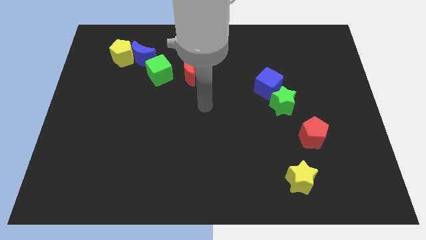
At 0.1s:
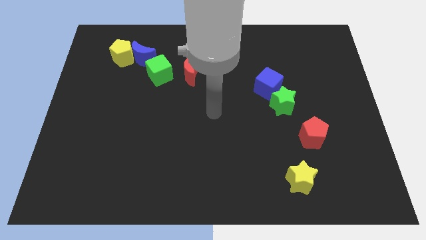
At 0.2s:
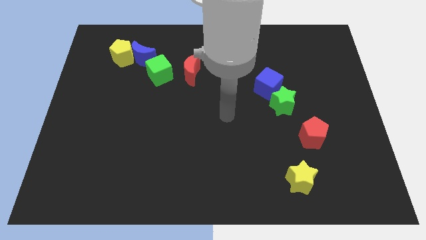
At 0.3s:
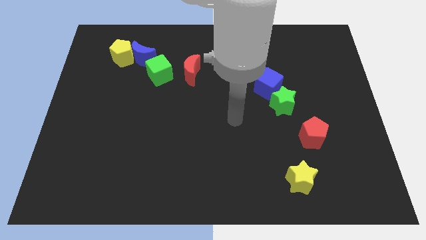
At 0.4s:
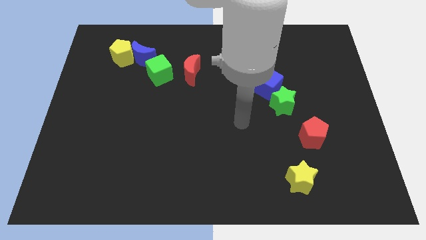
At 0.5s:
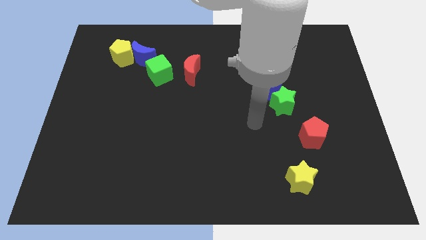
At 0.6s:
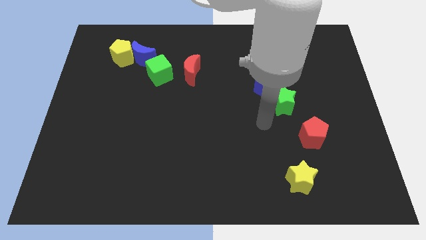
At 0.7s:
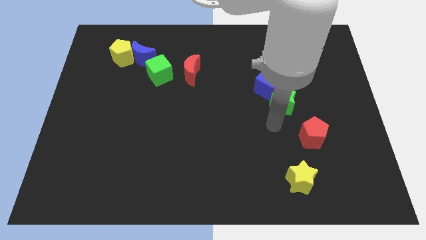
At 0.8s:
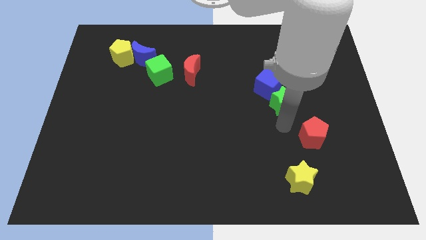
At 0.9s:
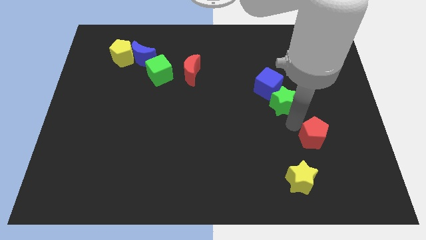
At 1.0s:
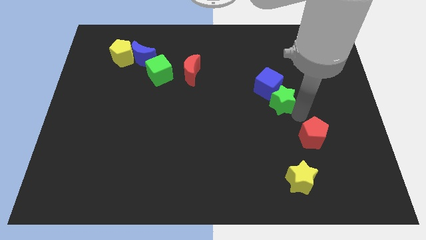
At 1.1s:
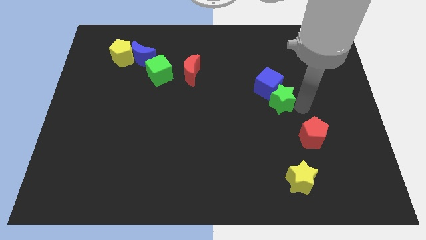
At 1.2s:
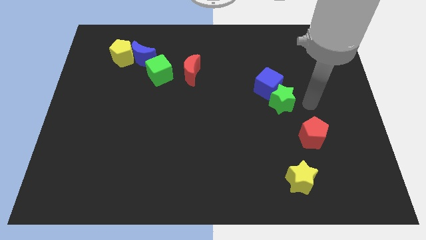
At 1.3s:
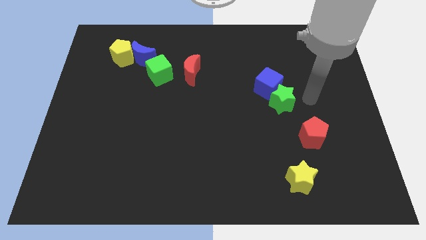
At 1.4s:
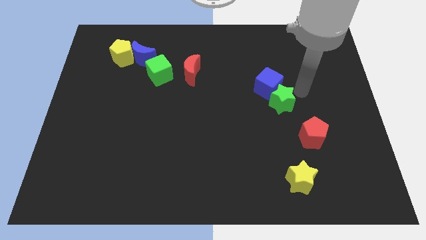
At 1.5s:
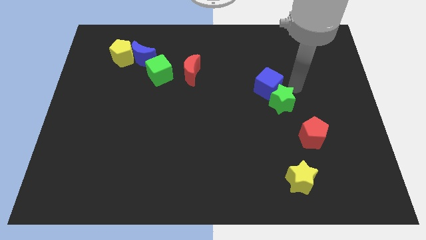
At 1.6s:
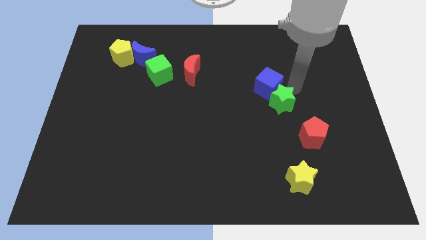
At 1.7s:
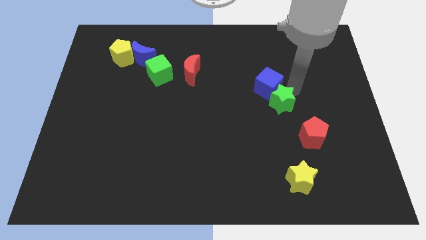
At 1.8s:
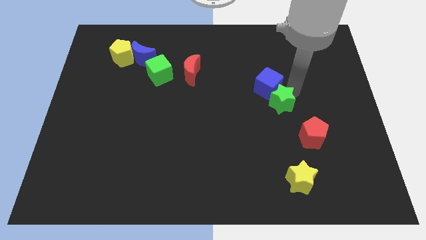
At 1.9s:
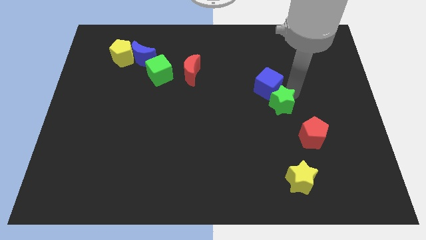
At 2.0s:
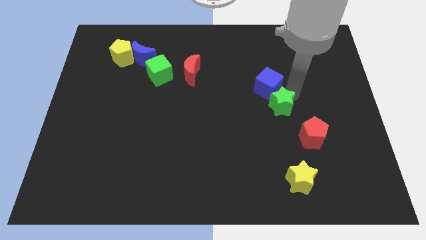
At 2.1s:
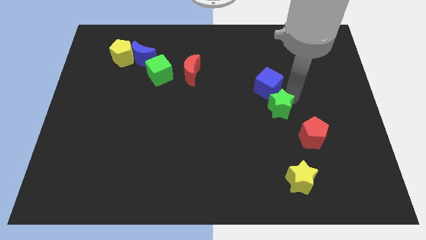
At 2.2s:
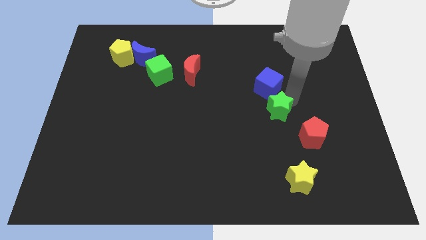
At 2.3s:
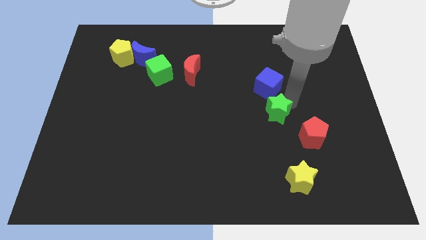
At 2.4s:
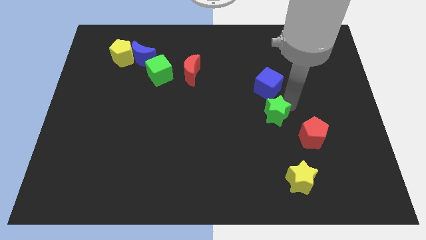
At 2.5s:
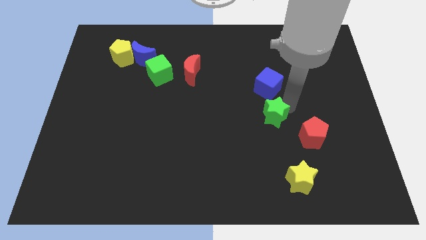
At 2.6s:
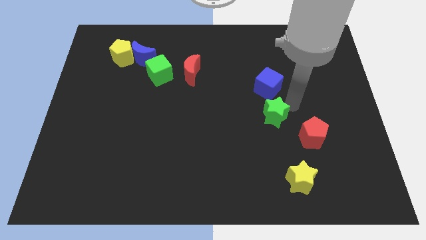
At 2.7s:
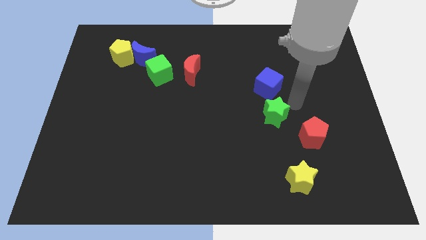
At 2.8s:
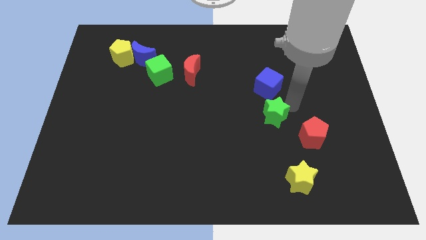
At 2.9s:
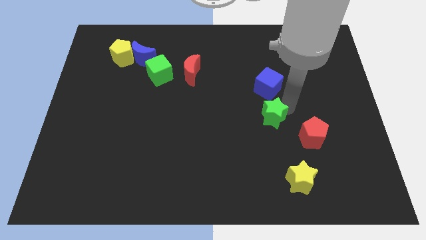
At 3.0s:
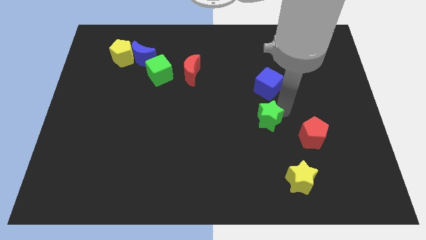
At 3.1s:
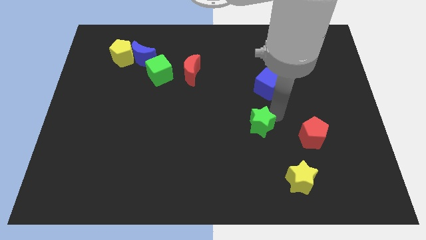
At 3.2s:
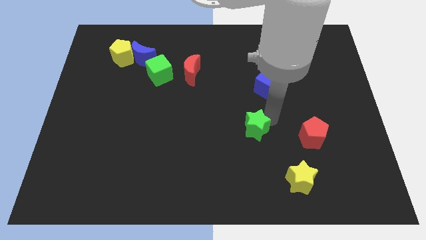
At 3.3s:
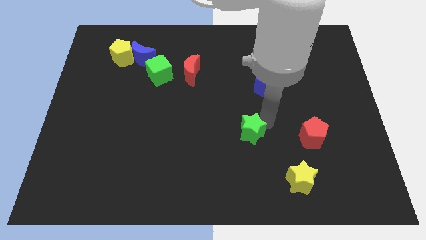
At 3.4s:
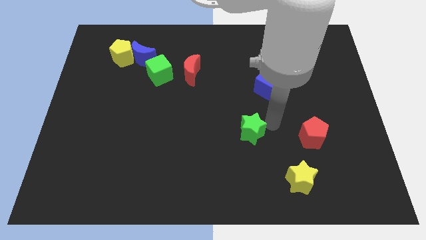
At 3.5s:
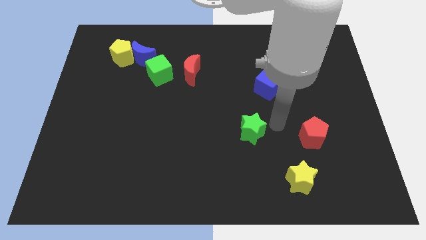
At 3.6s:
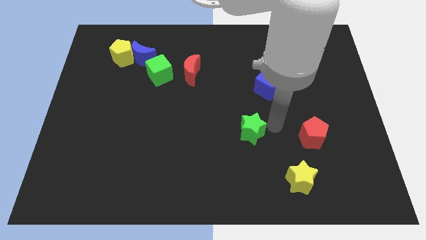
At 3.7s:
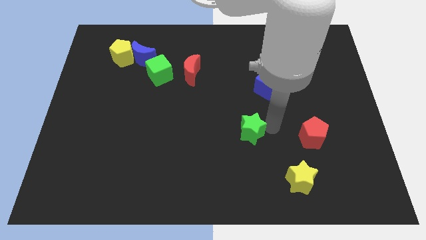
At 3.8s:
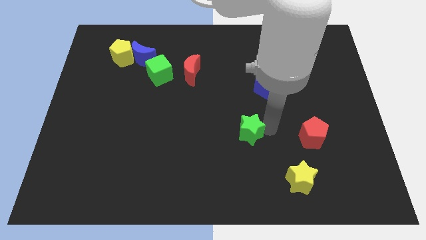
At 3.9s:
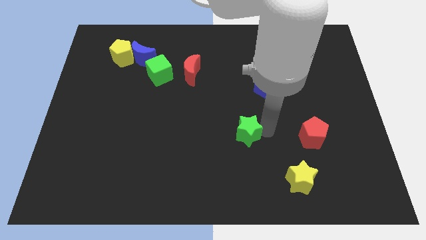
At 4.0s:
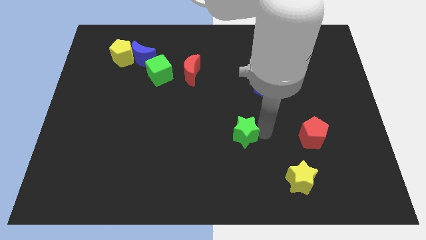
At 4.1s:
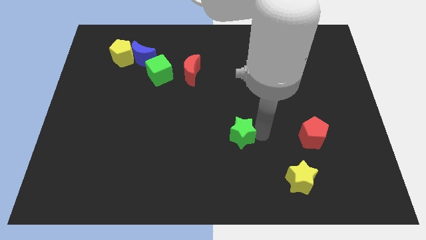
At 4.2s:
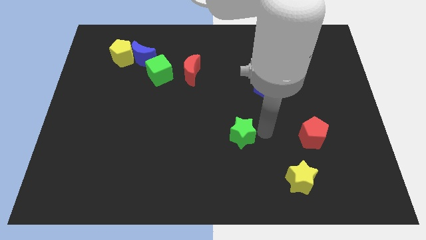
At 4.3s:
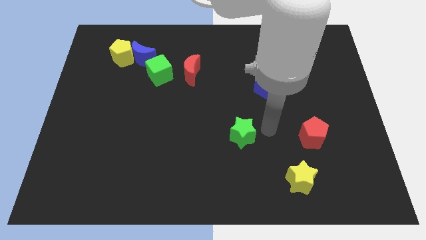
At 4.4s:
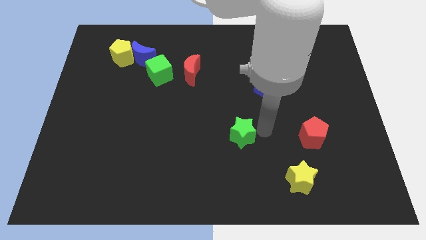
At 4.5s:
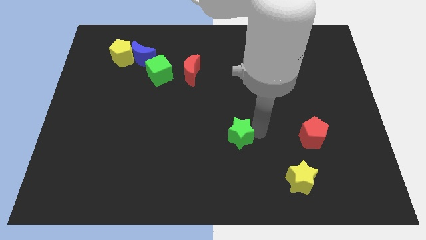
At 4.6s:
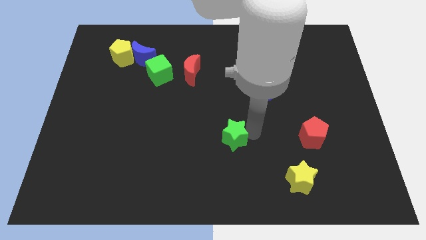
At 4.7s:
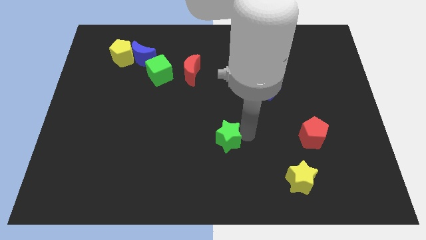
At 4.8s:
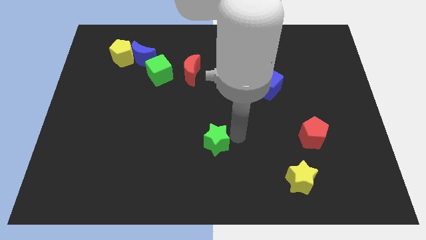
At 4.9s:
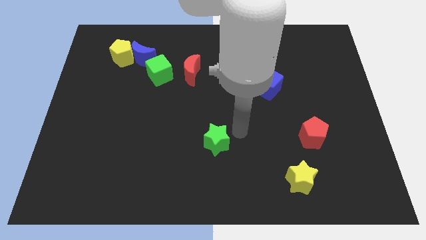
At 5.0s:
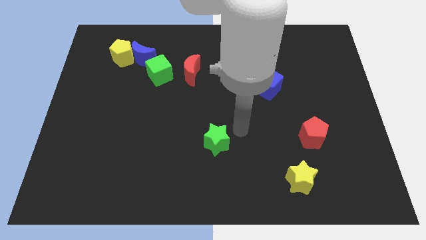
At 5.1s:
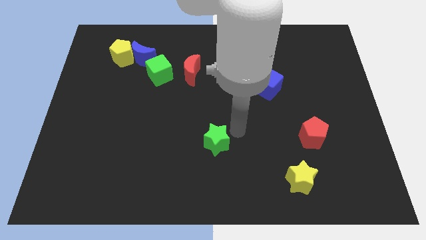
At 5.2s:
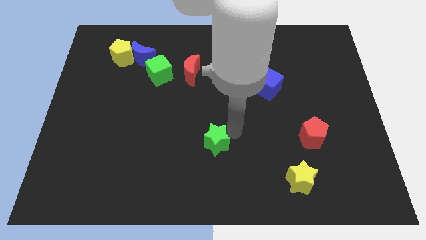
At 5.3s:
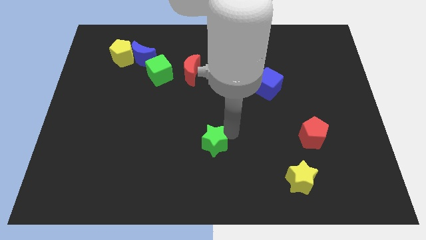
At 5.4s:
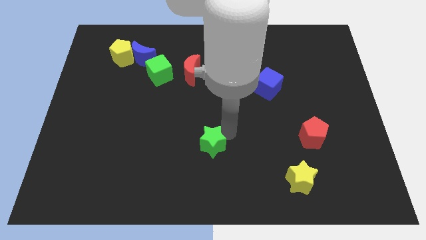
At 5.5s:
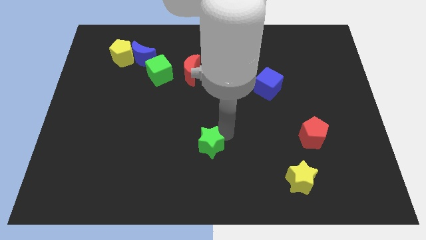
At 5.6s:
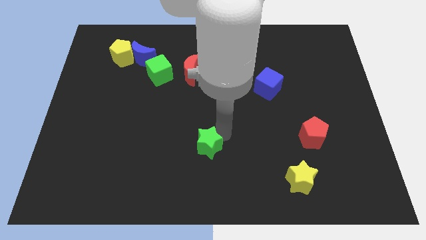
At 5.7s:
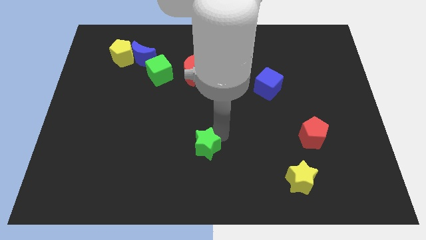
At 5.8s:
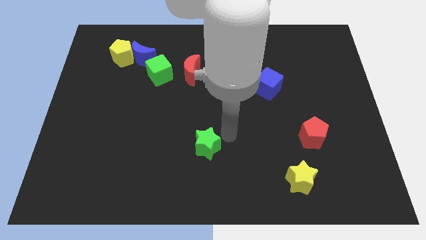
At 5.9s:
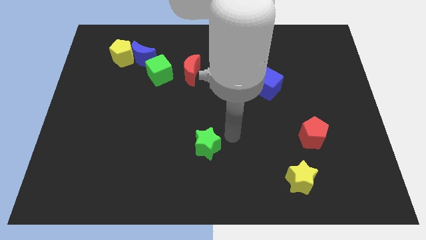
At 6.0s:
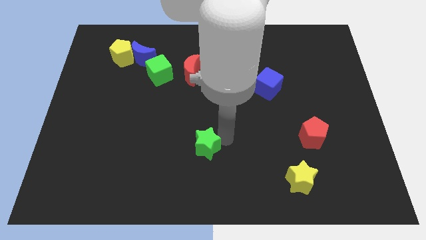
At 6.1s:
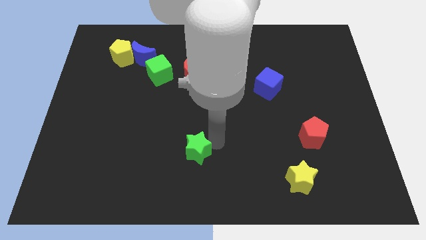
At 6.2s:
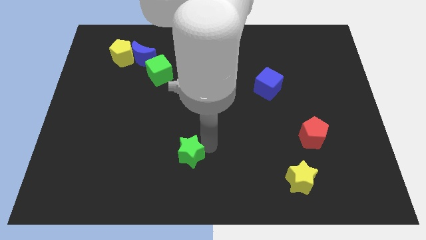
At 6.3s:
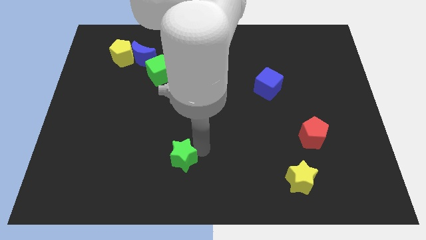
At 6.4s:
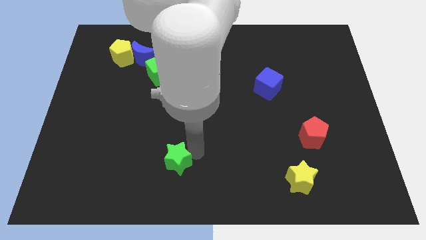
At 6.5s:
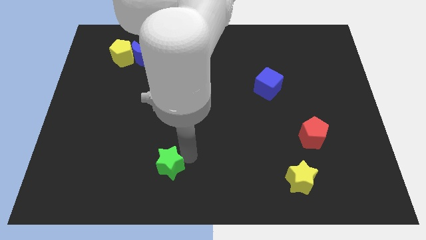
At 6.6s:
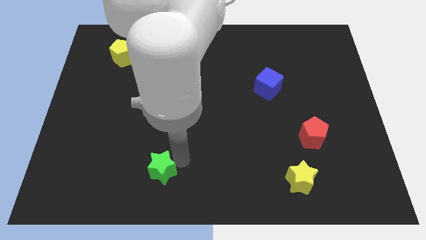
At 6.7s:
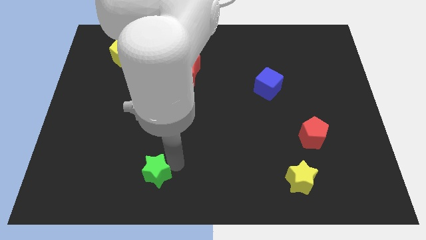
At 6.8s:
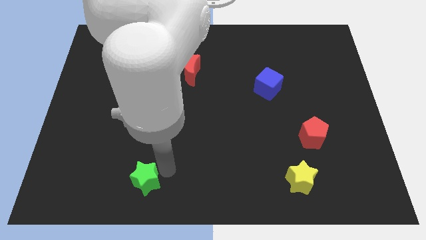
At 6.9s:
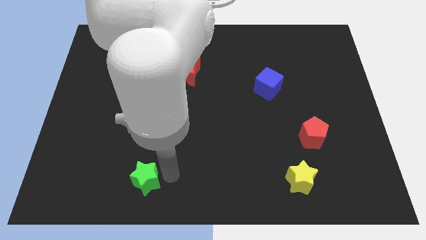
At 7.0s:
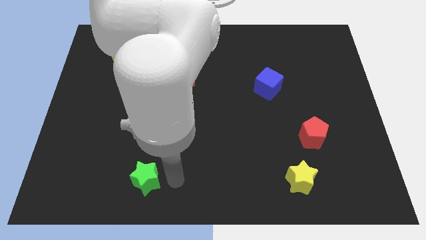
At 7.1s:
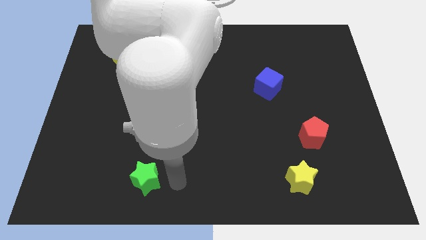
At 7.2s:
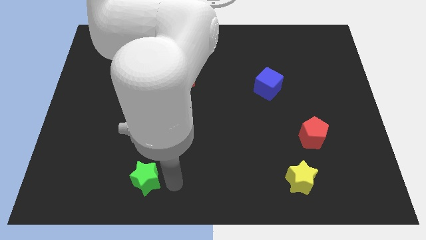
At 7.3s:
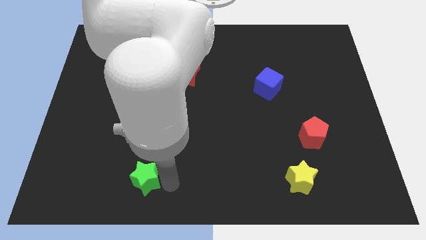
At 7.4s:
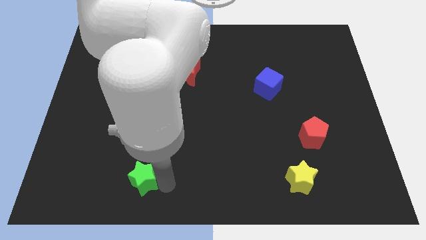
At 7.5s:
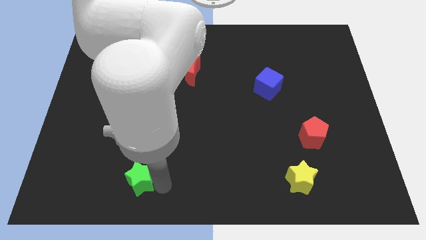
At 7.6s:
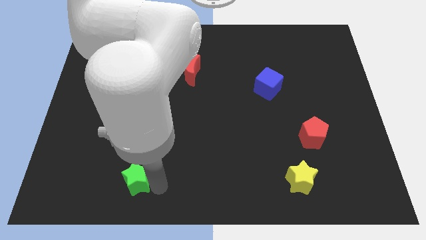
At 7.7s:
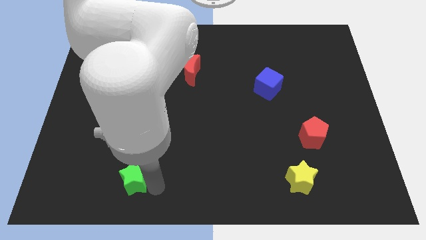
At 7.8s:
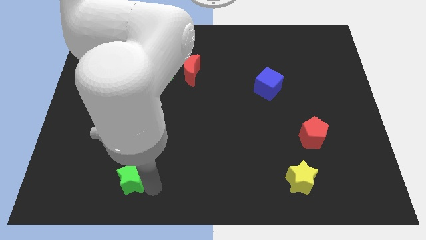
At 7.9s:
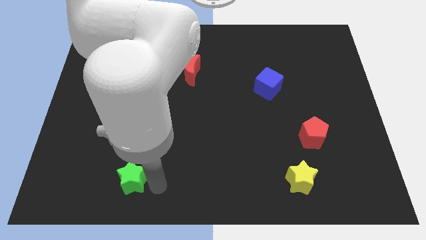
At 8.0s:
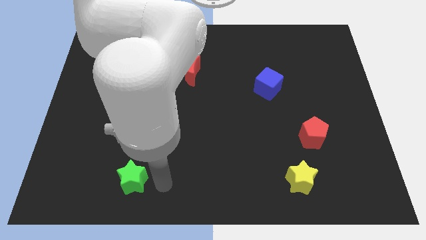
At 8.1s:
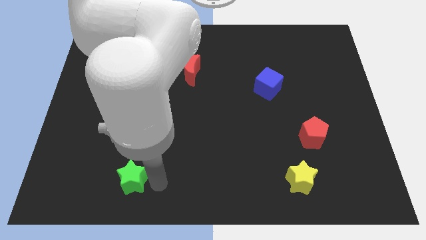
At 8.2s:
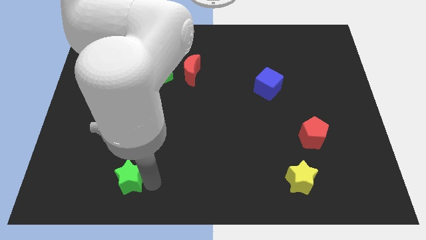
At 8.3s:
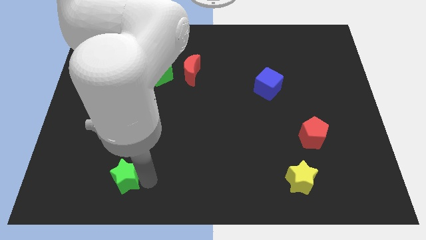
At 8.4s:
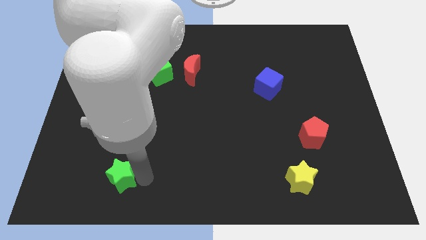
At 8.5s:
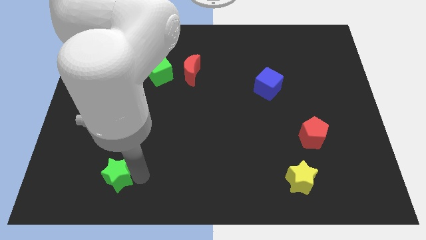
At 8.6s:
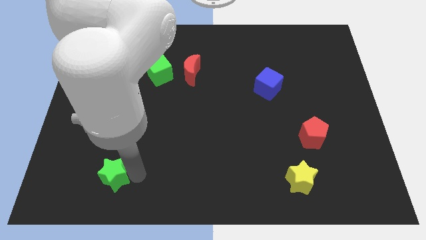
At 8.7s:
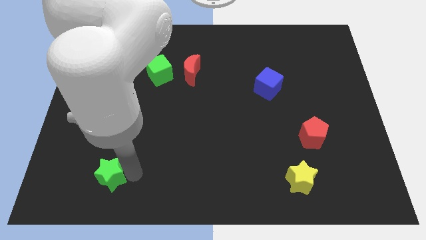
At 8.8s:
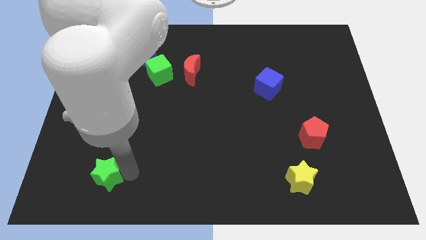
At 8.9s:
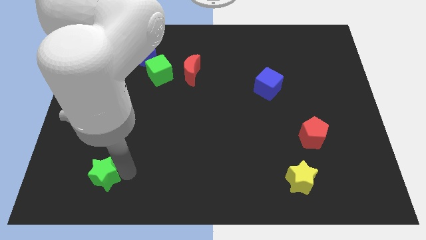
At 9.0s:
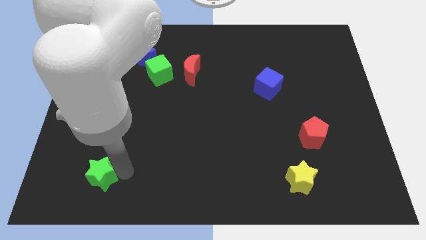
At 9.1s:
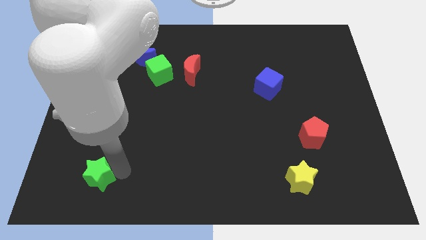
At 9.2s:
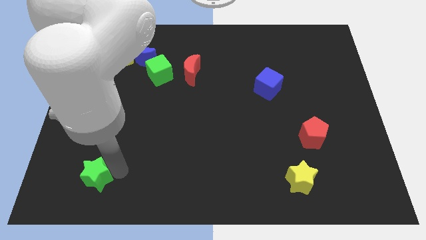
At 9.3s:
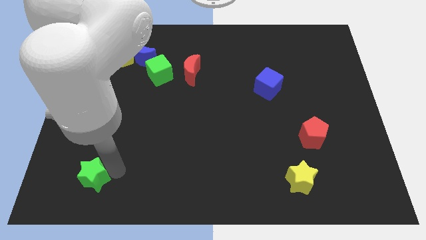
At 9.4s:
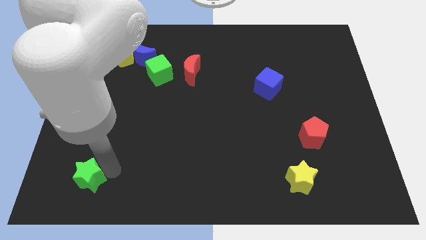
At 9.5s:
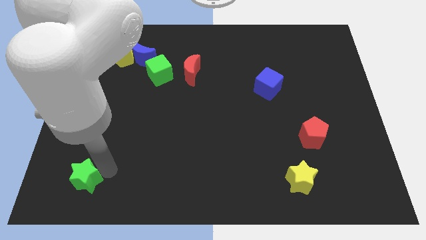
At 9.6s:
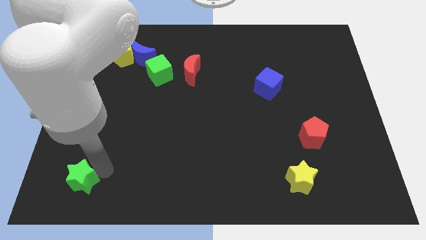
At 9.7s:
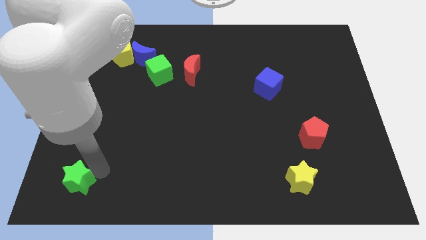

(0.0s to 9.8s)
move the green star to the lower left corner
